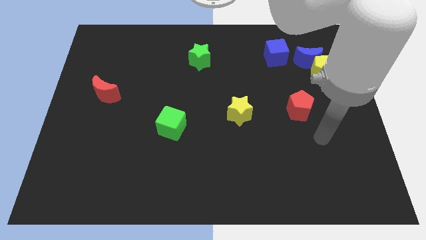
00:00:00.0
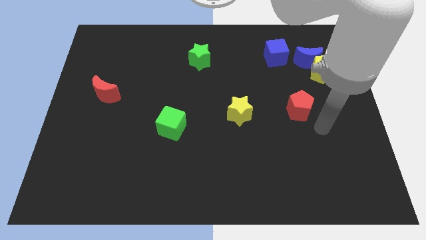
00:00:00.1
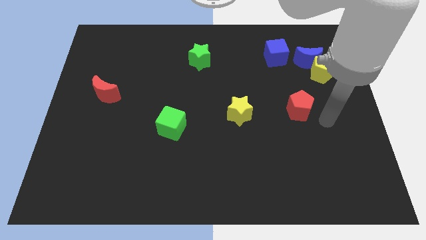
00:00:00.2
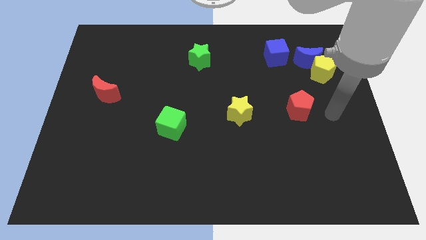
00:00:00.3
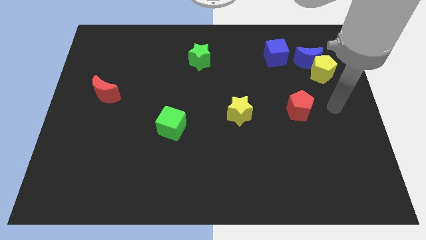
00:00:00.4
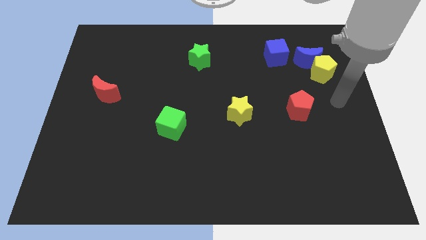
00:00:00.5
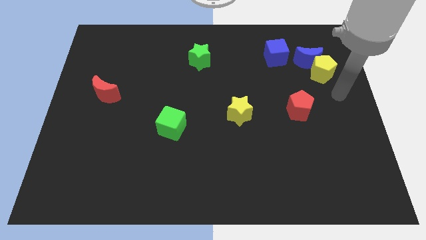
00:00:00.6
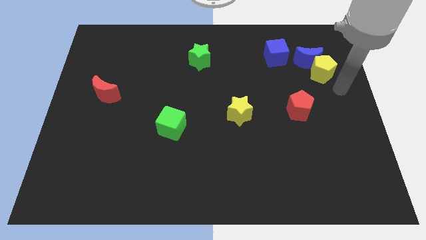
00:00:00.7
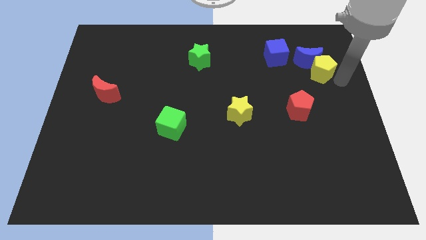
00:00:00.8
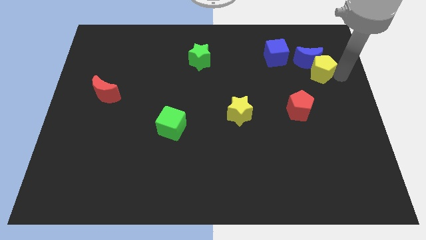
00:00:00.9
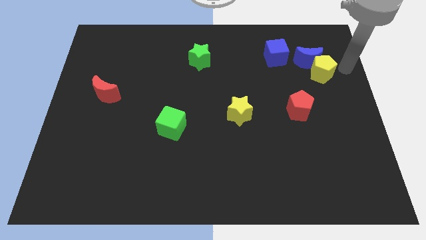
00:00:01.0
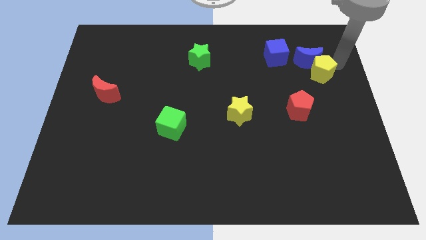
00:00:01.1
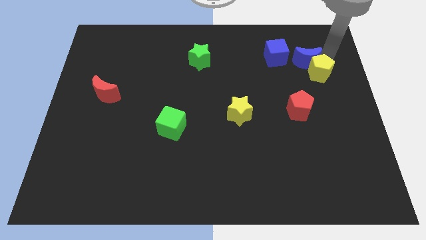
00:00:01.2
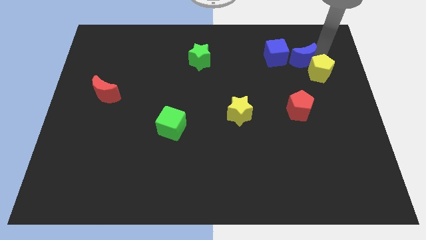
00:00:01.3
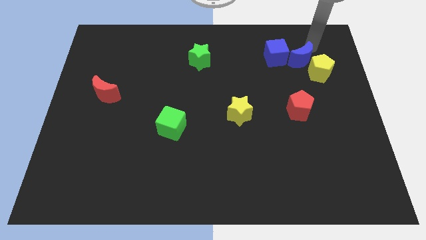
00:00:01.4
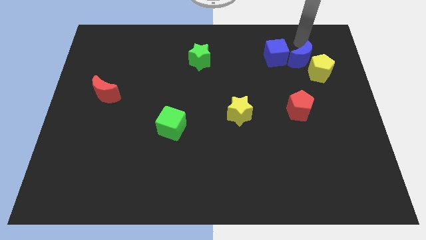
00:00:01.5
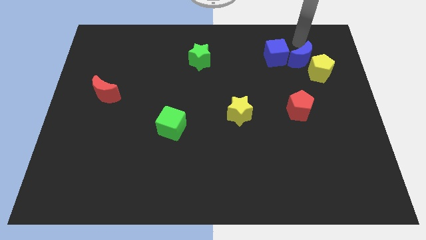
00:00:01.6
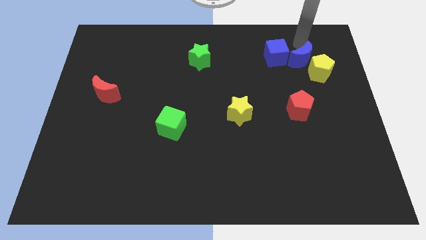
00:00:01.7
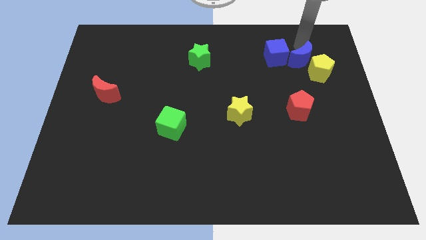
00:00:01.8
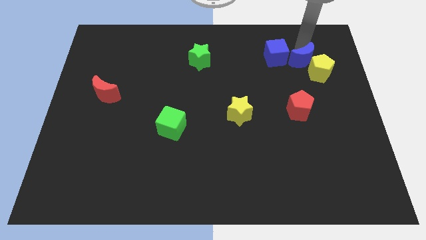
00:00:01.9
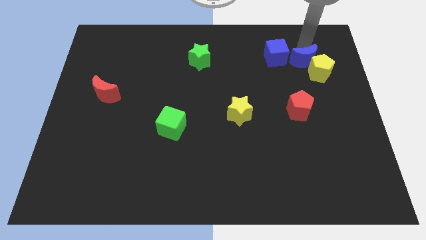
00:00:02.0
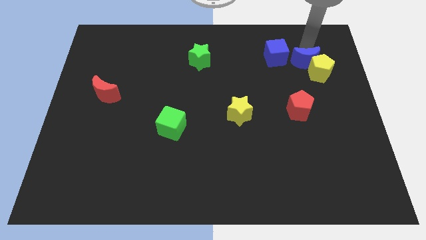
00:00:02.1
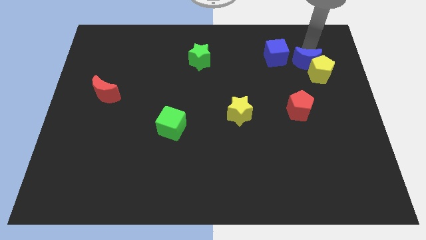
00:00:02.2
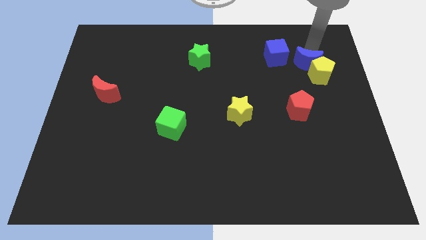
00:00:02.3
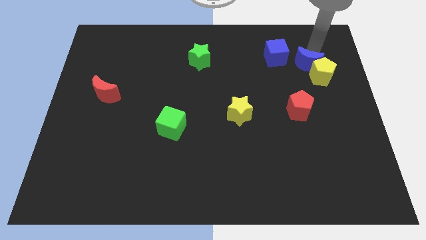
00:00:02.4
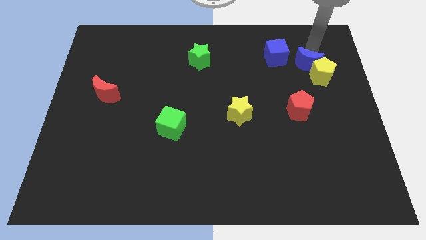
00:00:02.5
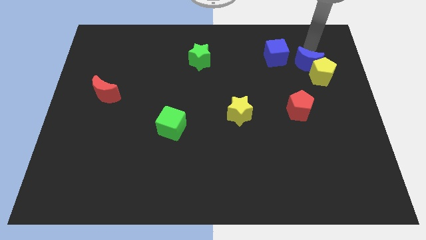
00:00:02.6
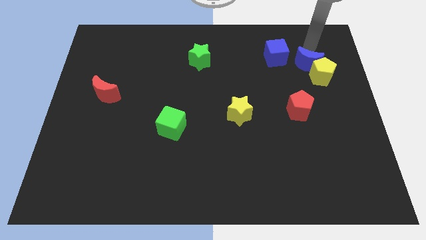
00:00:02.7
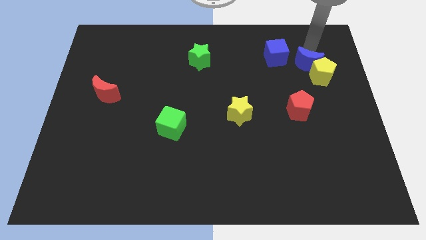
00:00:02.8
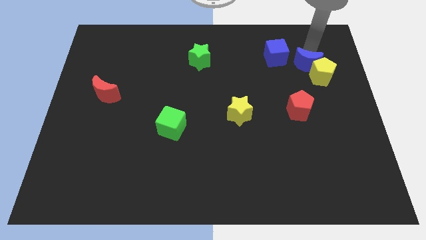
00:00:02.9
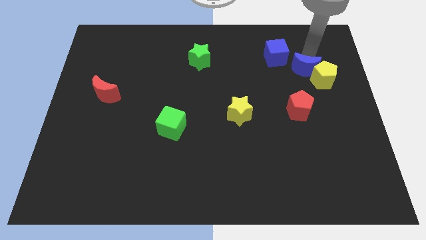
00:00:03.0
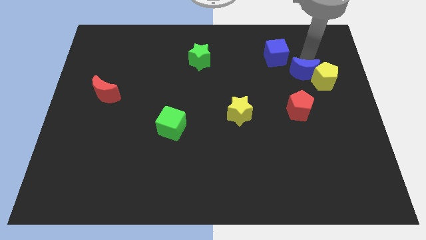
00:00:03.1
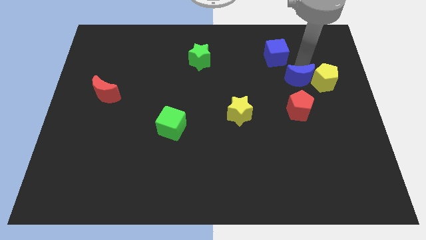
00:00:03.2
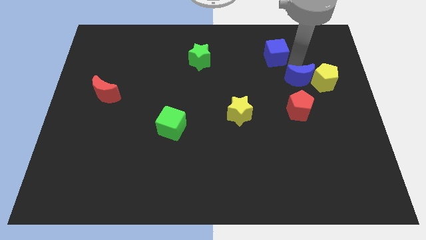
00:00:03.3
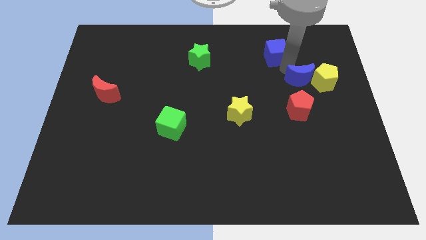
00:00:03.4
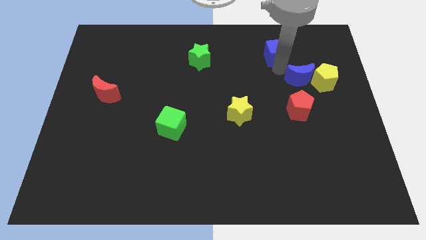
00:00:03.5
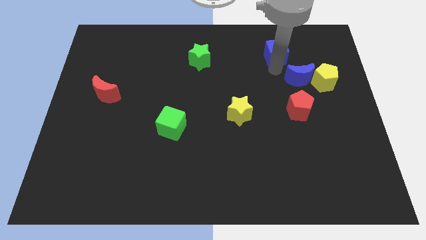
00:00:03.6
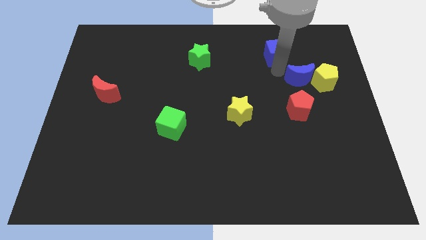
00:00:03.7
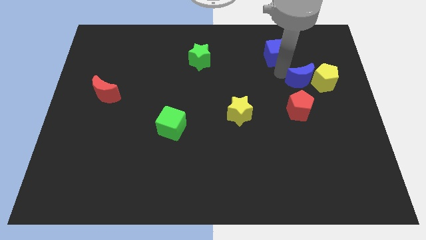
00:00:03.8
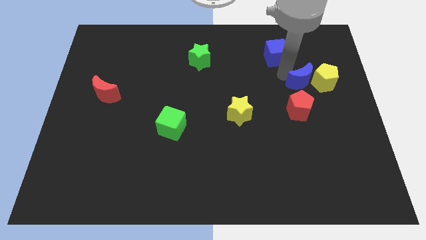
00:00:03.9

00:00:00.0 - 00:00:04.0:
push the blue moon a bit downwards

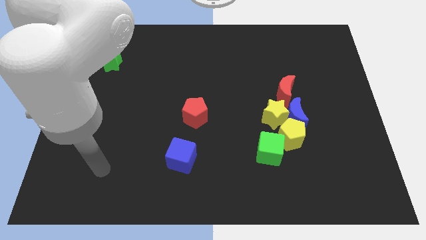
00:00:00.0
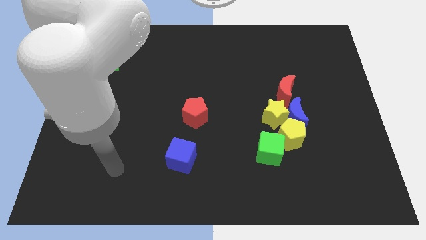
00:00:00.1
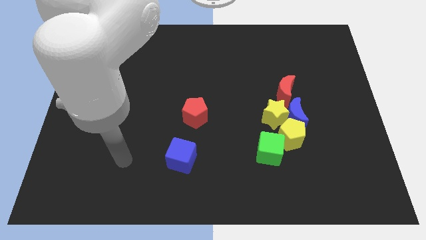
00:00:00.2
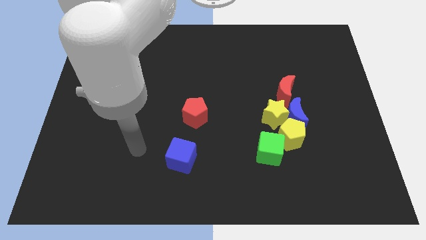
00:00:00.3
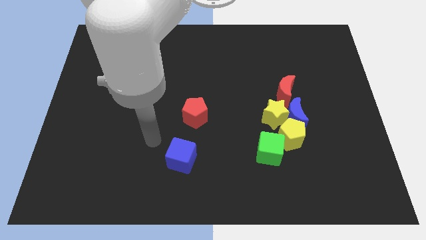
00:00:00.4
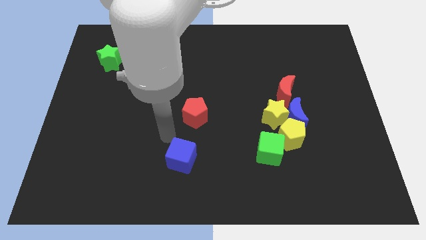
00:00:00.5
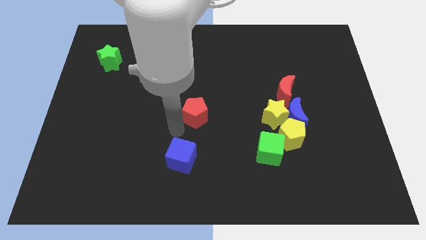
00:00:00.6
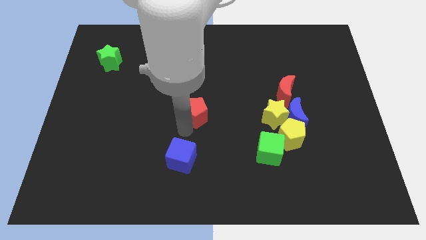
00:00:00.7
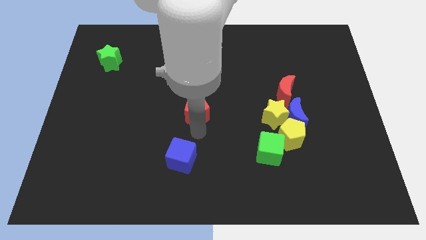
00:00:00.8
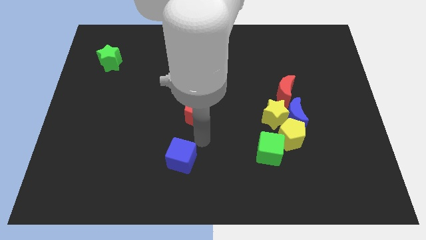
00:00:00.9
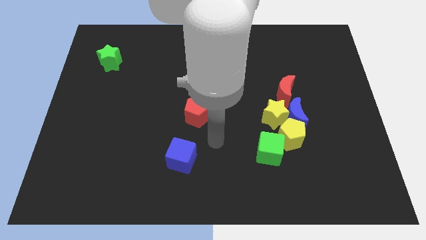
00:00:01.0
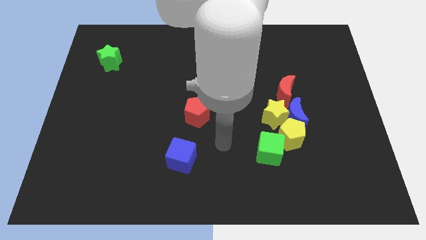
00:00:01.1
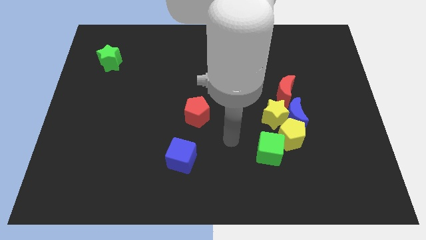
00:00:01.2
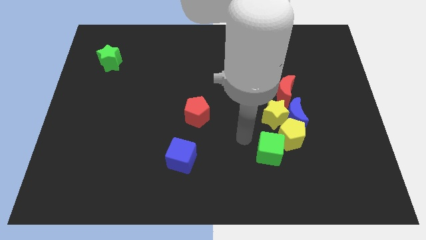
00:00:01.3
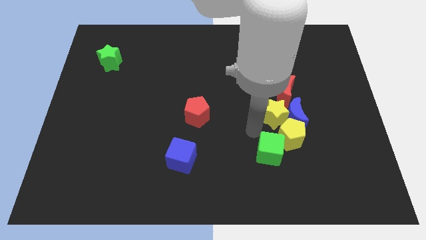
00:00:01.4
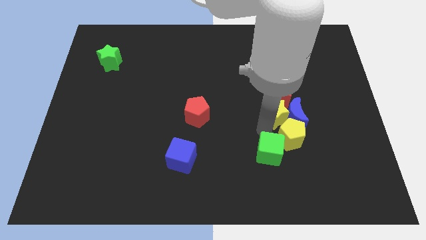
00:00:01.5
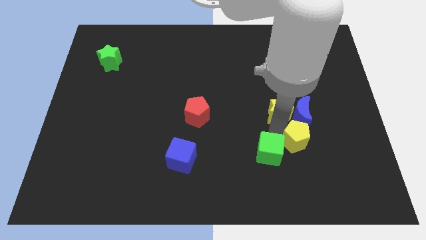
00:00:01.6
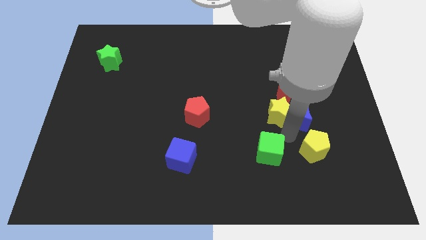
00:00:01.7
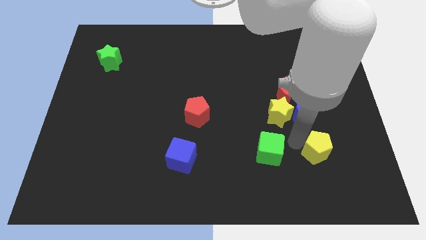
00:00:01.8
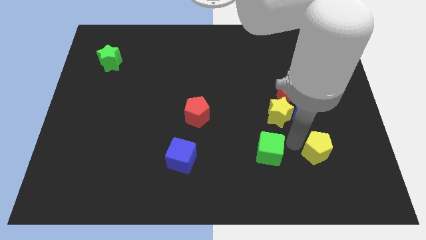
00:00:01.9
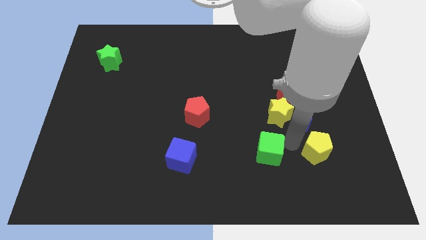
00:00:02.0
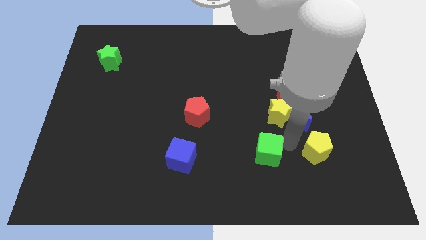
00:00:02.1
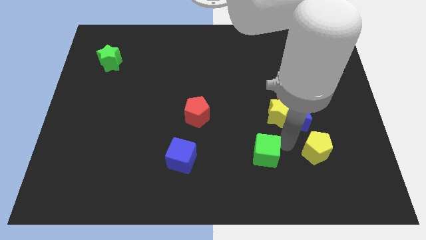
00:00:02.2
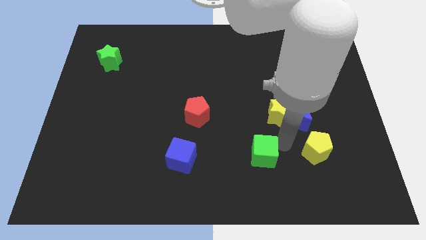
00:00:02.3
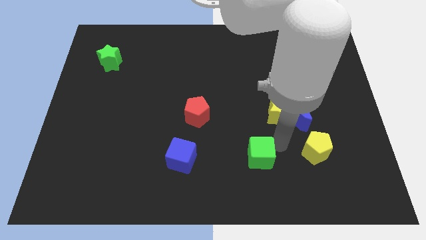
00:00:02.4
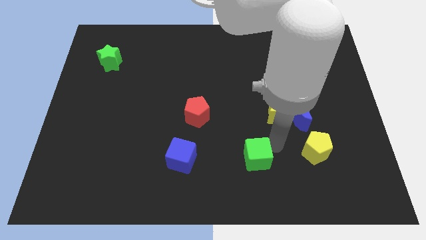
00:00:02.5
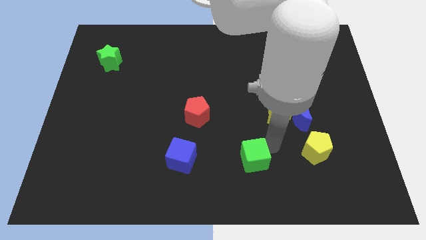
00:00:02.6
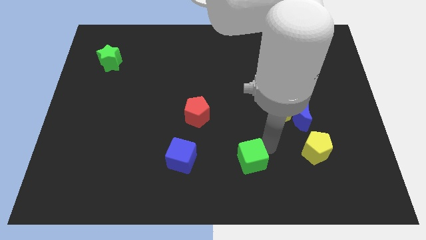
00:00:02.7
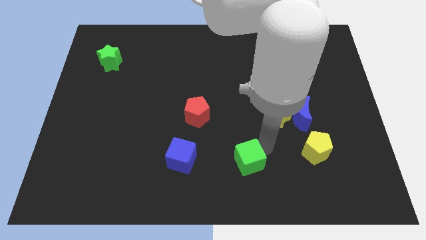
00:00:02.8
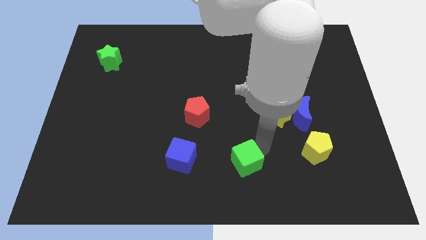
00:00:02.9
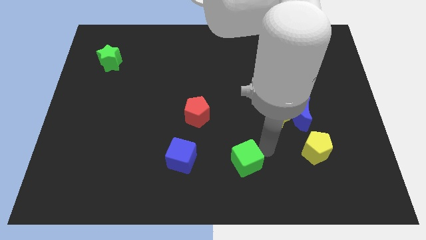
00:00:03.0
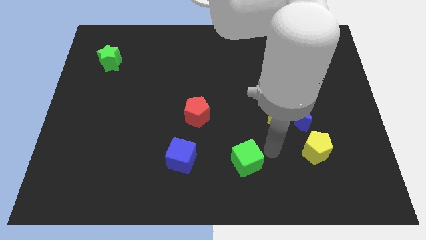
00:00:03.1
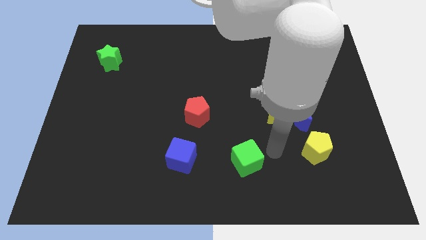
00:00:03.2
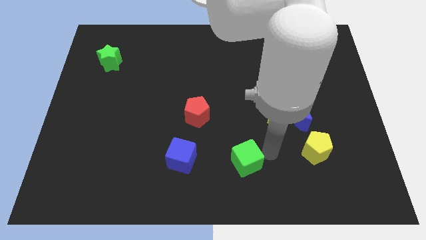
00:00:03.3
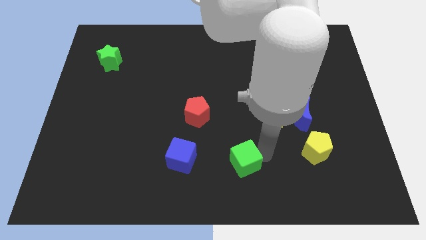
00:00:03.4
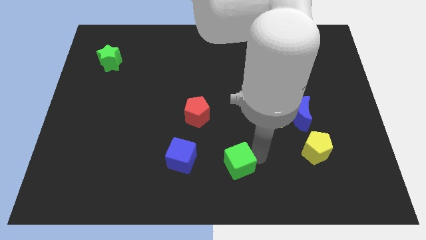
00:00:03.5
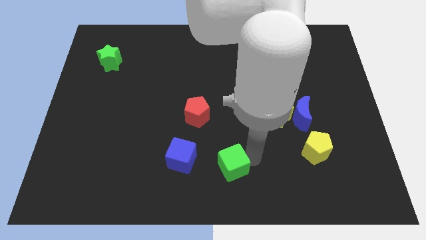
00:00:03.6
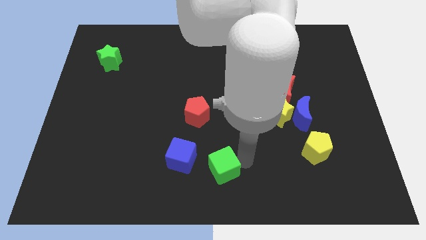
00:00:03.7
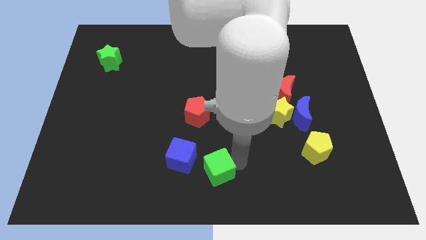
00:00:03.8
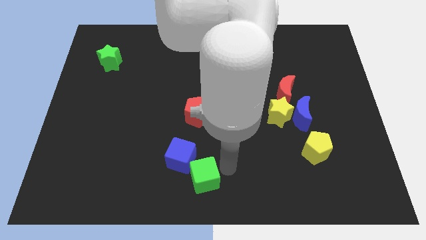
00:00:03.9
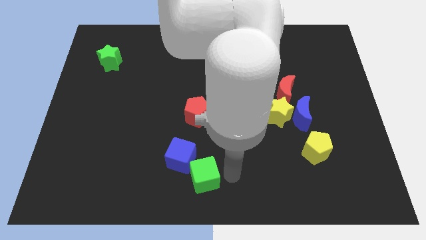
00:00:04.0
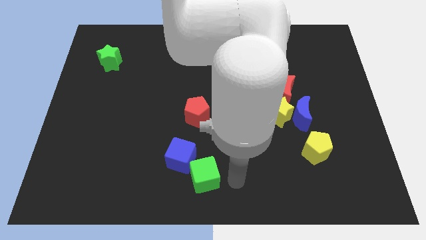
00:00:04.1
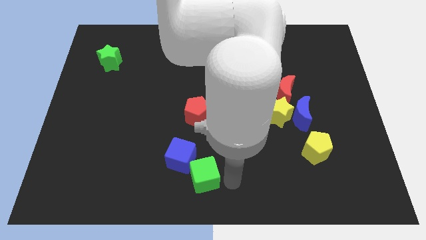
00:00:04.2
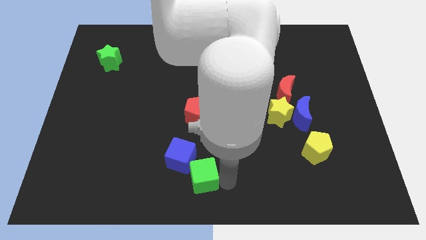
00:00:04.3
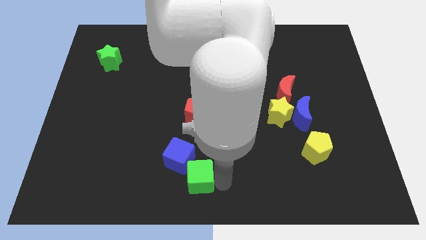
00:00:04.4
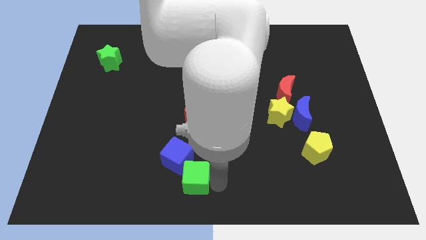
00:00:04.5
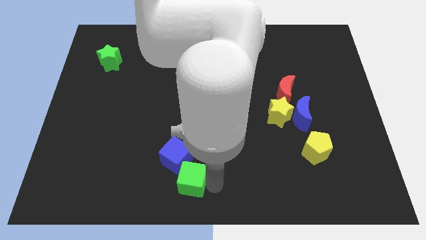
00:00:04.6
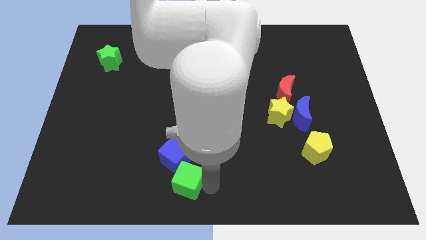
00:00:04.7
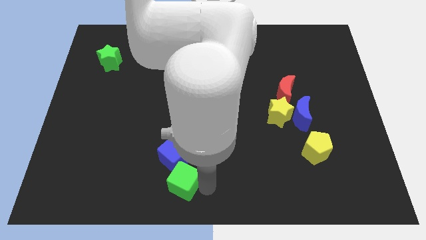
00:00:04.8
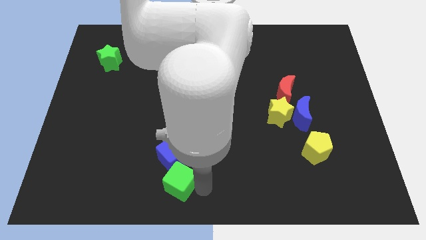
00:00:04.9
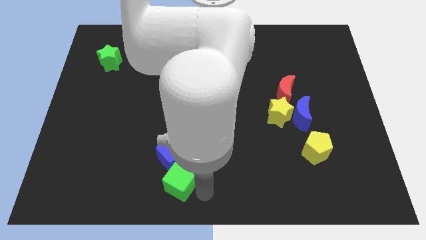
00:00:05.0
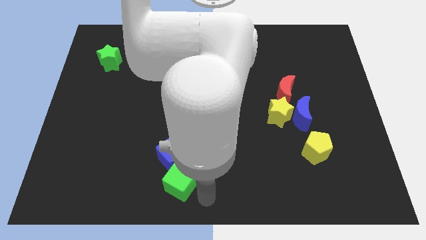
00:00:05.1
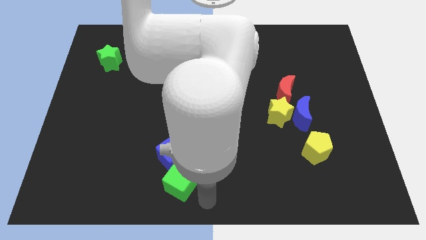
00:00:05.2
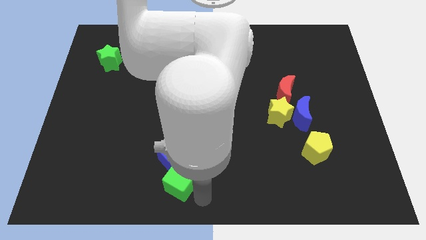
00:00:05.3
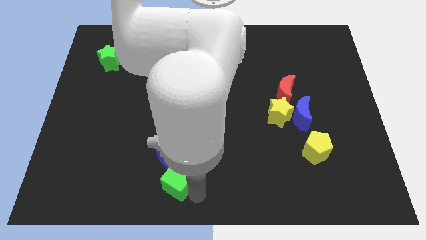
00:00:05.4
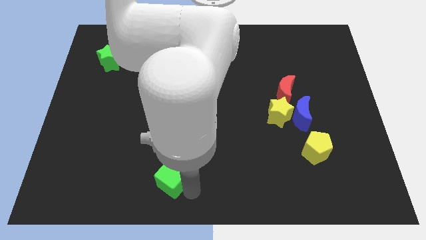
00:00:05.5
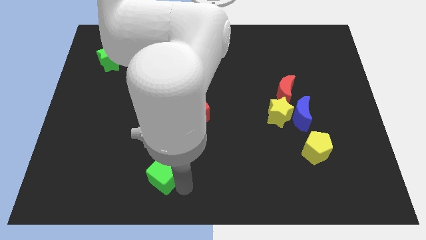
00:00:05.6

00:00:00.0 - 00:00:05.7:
slide the green cube to the left
